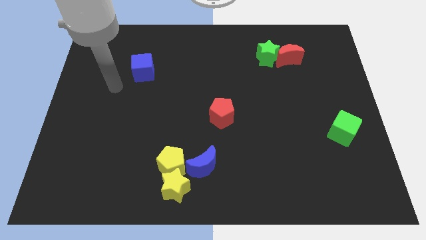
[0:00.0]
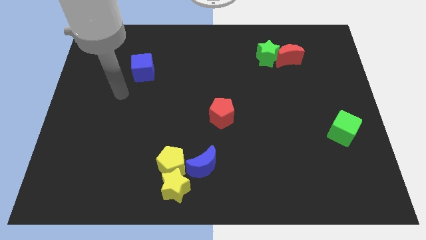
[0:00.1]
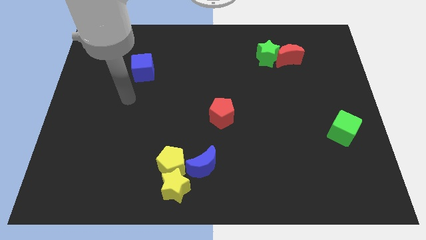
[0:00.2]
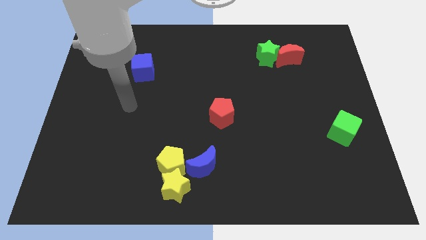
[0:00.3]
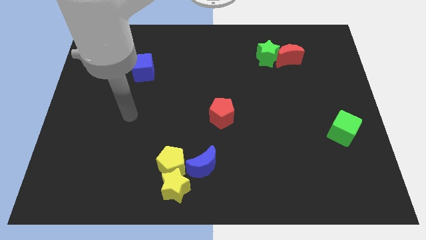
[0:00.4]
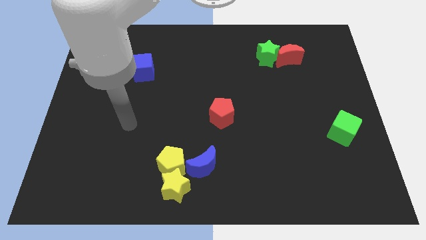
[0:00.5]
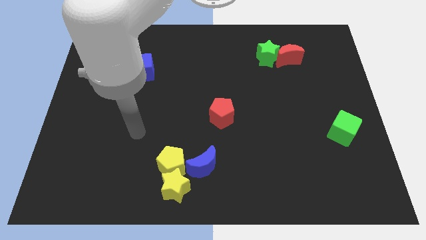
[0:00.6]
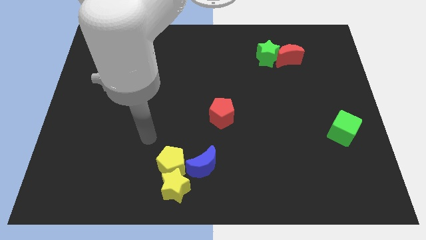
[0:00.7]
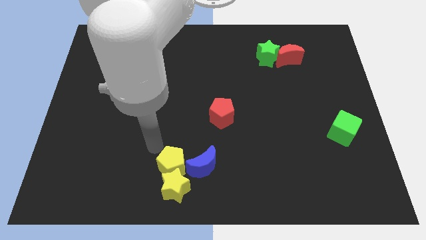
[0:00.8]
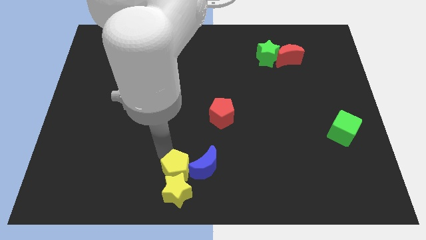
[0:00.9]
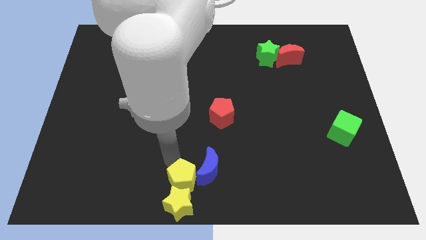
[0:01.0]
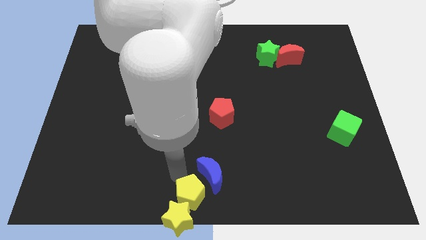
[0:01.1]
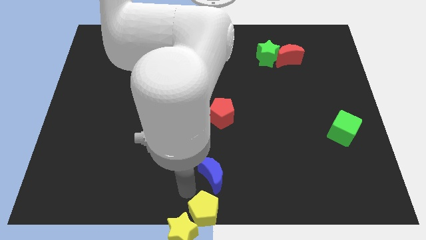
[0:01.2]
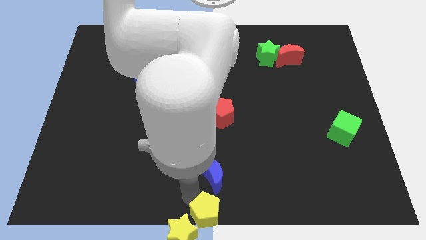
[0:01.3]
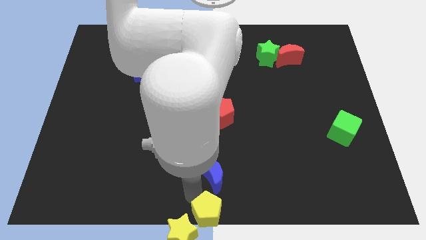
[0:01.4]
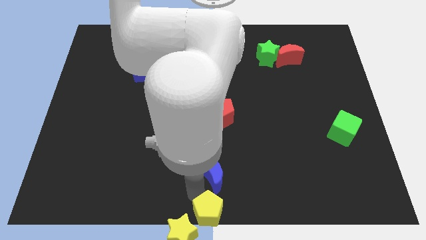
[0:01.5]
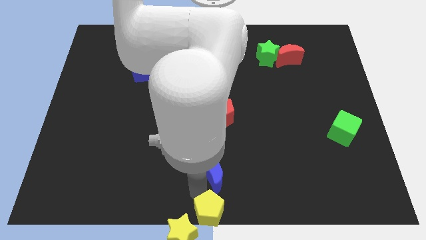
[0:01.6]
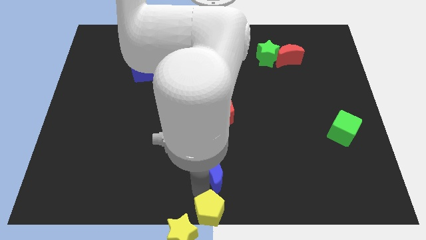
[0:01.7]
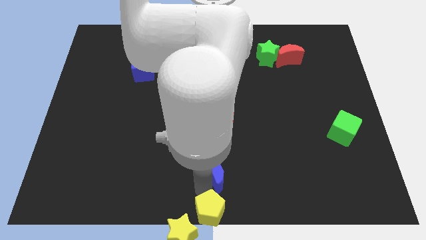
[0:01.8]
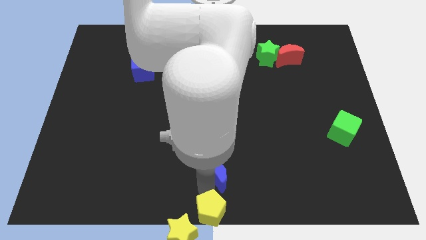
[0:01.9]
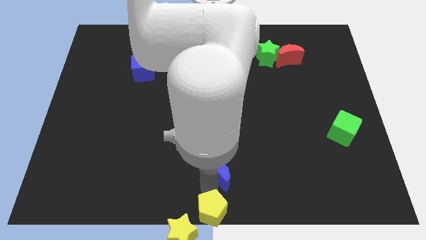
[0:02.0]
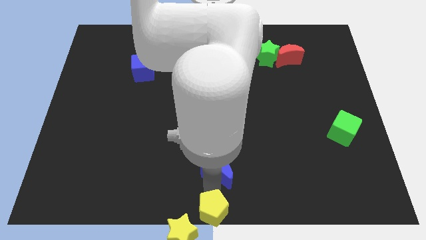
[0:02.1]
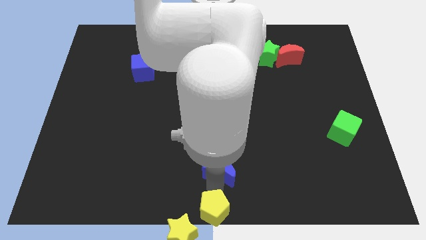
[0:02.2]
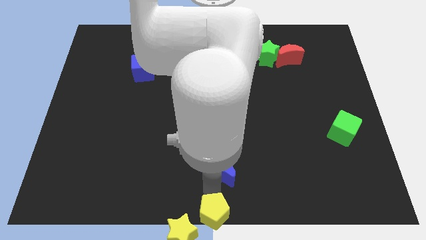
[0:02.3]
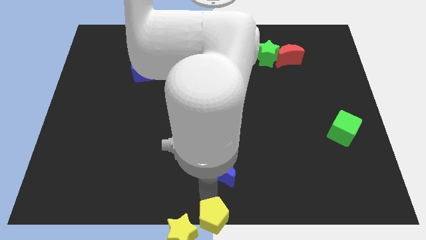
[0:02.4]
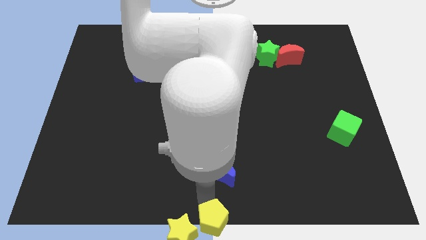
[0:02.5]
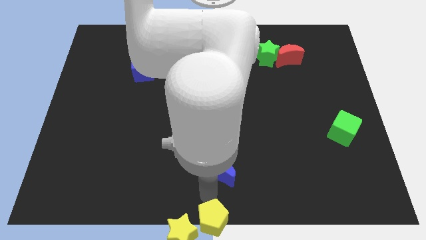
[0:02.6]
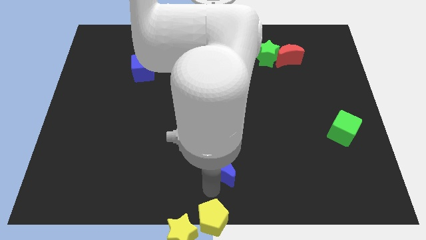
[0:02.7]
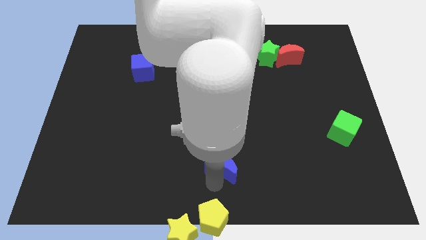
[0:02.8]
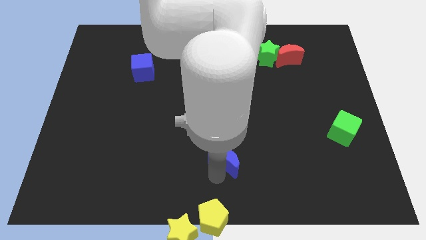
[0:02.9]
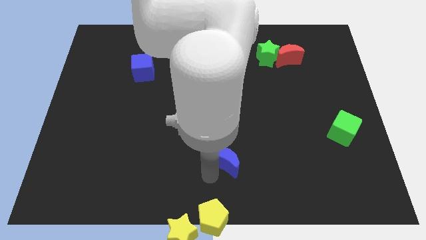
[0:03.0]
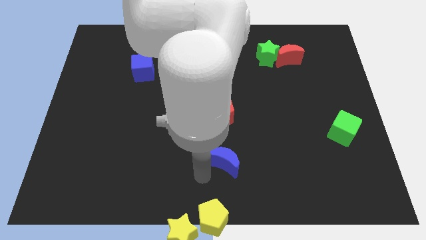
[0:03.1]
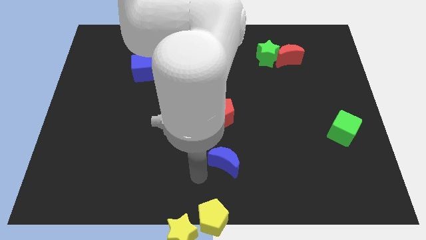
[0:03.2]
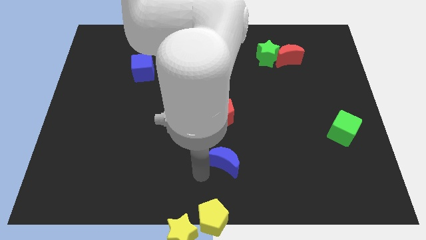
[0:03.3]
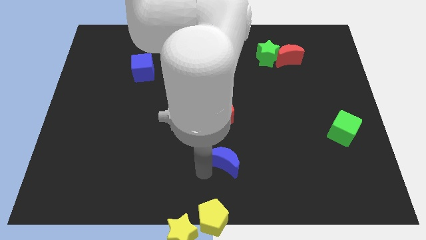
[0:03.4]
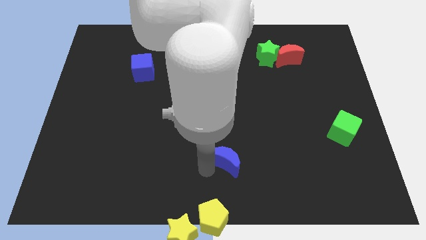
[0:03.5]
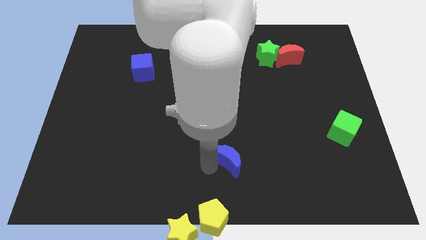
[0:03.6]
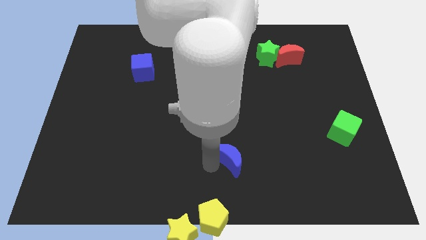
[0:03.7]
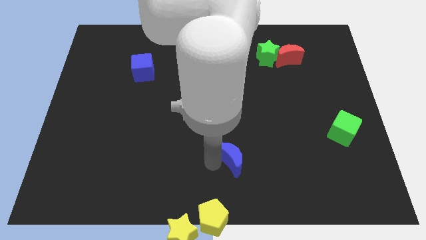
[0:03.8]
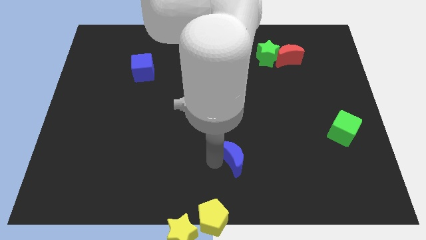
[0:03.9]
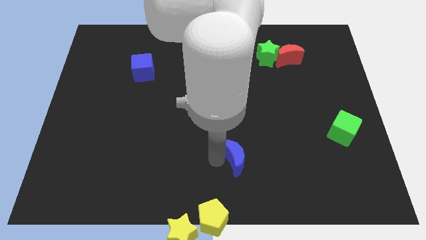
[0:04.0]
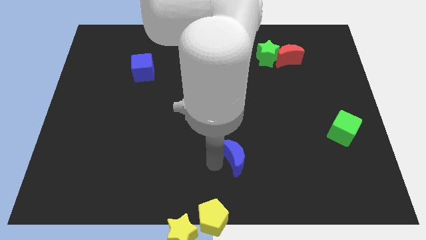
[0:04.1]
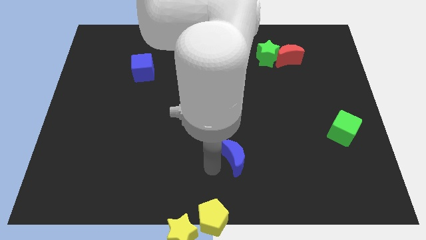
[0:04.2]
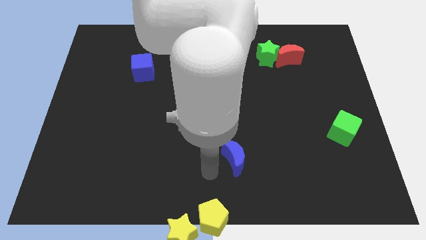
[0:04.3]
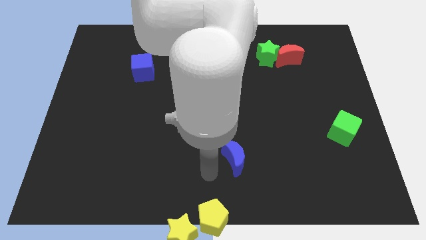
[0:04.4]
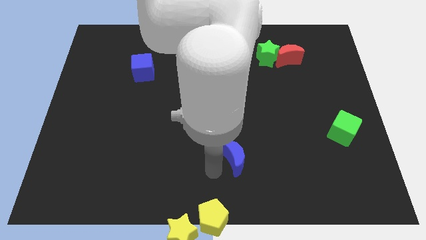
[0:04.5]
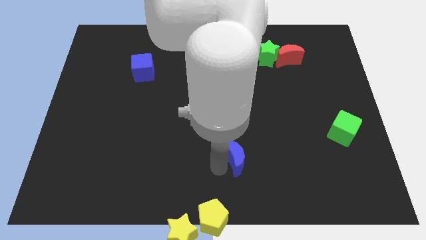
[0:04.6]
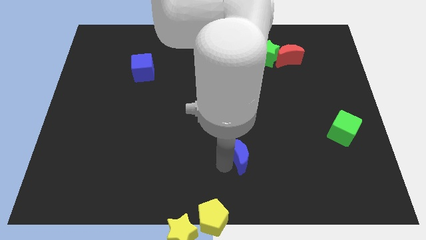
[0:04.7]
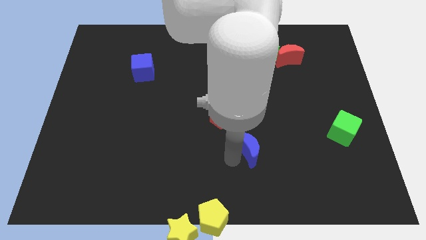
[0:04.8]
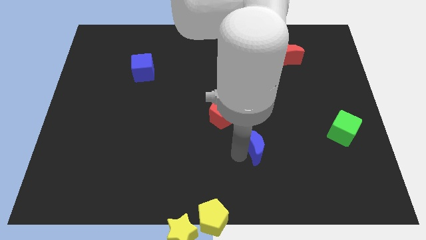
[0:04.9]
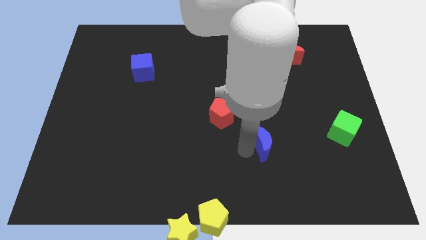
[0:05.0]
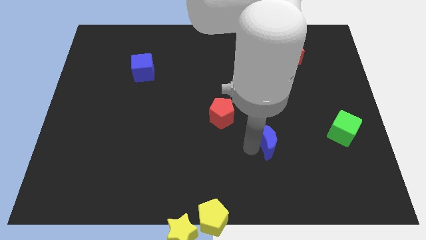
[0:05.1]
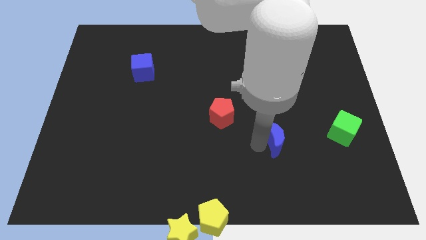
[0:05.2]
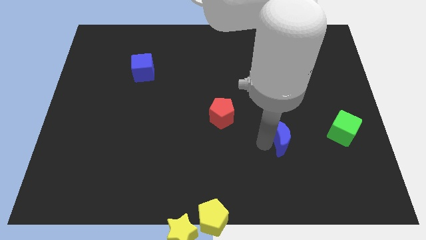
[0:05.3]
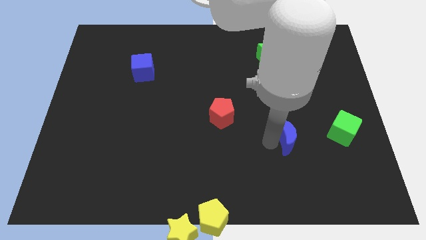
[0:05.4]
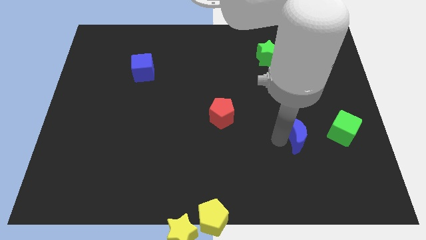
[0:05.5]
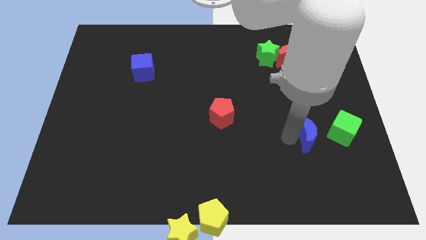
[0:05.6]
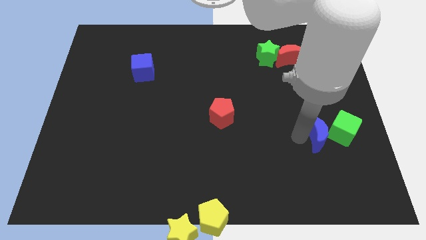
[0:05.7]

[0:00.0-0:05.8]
put the blue moon towards the green cube

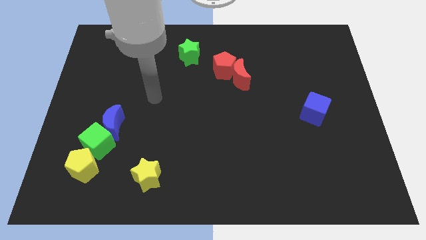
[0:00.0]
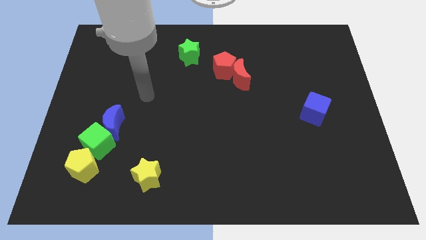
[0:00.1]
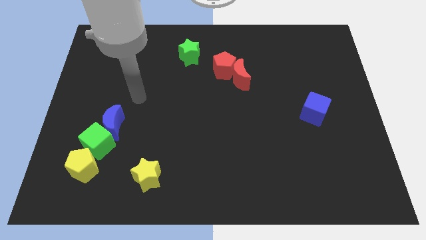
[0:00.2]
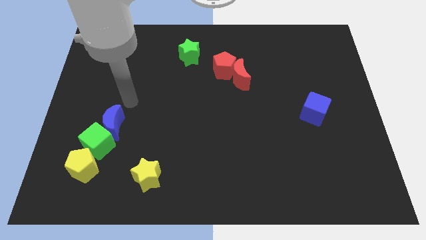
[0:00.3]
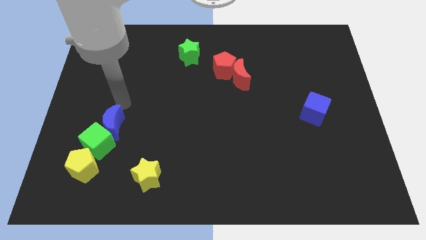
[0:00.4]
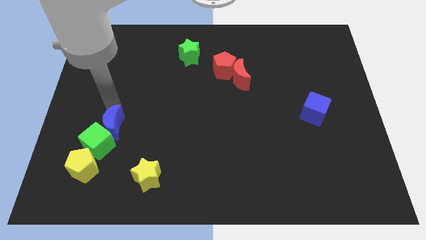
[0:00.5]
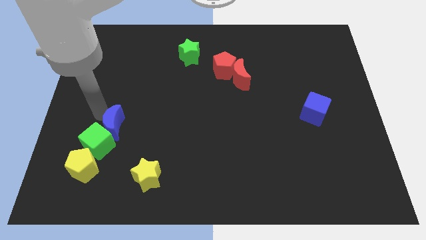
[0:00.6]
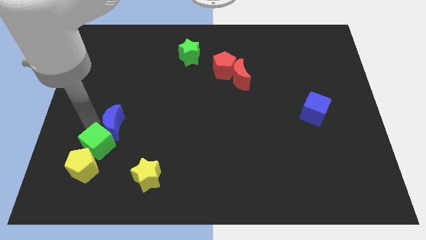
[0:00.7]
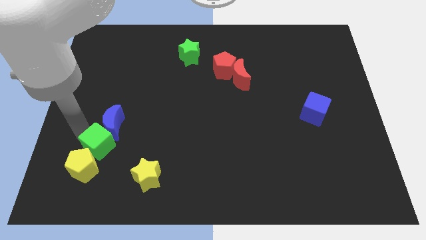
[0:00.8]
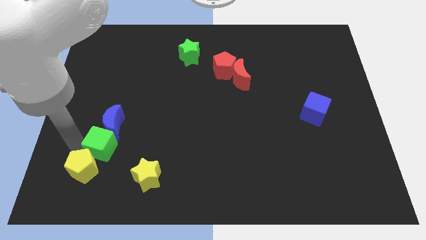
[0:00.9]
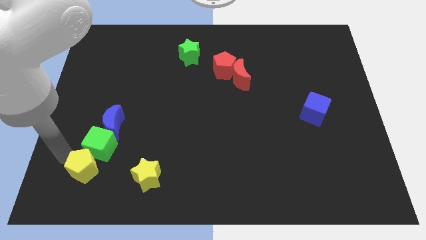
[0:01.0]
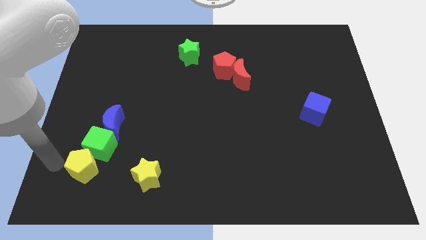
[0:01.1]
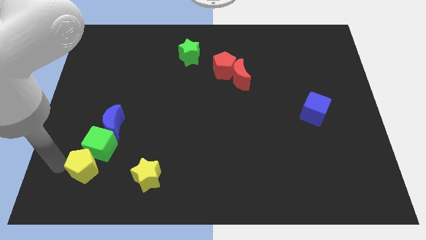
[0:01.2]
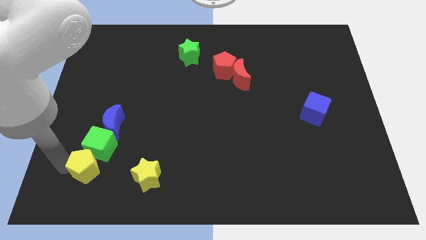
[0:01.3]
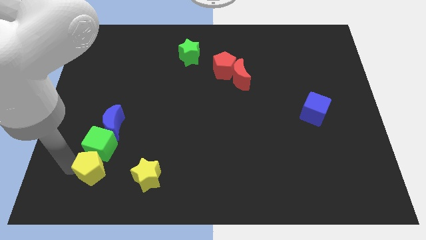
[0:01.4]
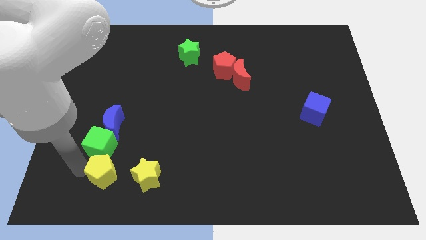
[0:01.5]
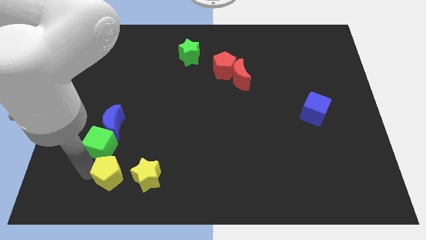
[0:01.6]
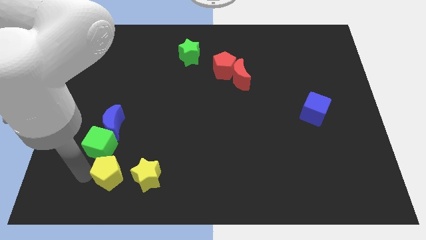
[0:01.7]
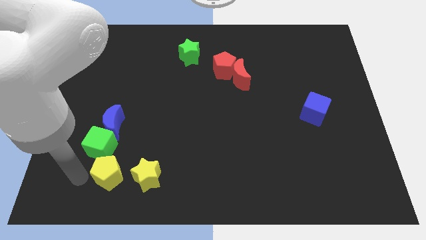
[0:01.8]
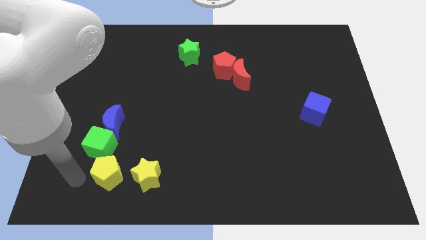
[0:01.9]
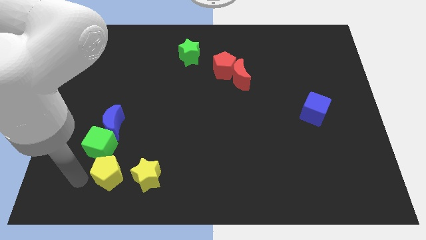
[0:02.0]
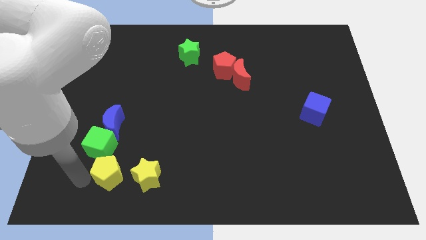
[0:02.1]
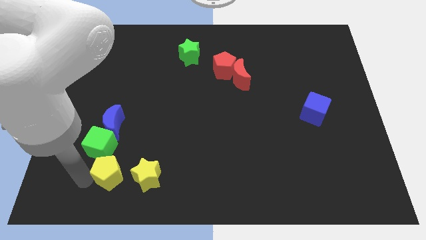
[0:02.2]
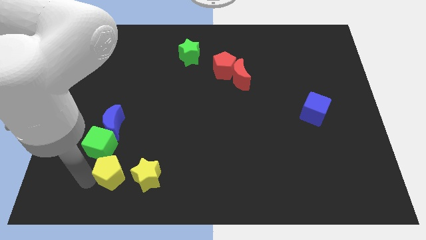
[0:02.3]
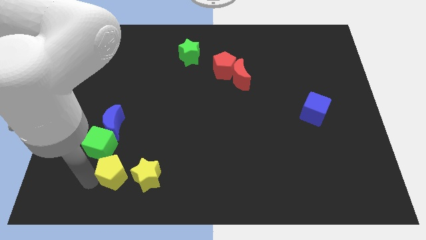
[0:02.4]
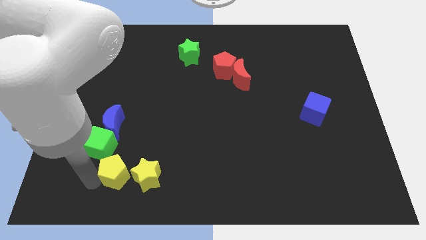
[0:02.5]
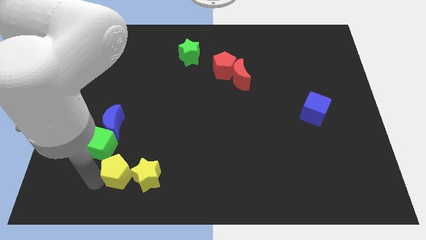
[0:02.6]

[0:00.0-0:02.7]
push the yellow pentagon towards the yellow star
